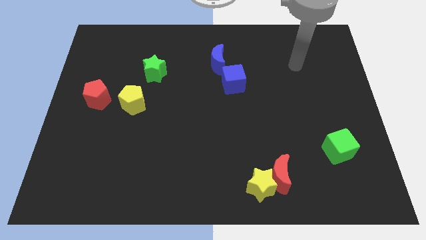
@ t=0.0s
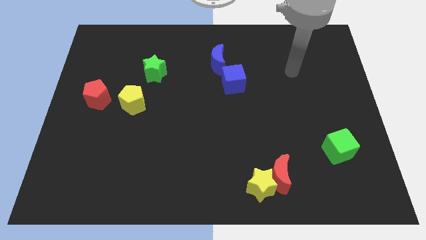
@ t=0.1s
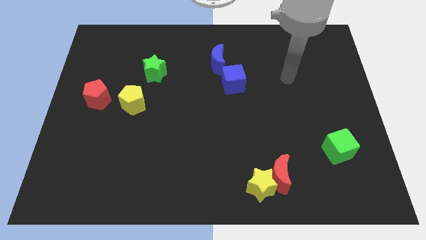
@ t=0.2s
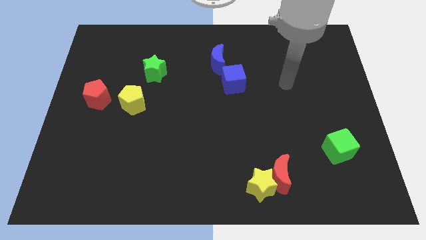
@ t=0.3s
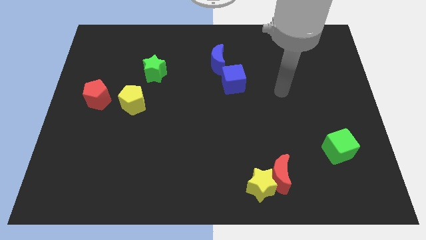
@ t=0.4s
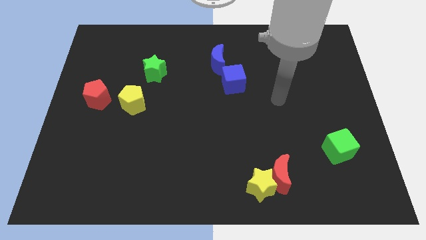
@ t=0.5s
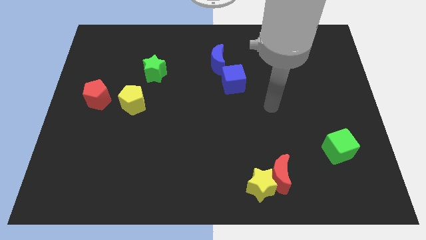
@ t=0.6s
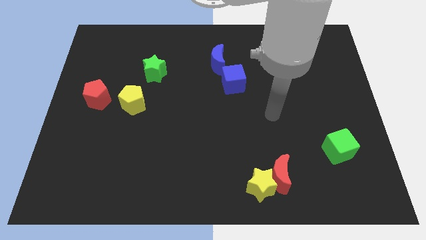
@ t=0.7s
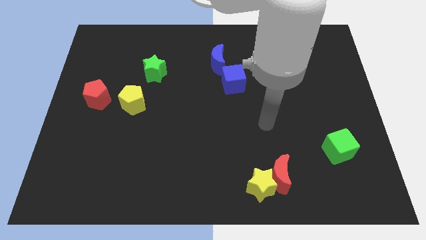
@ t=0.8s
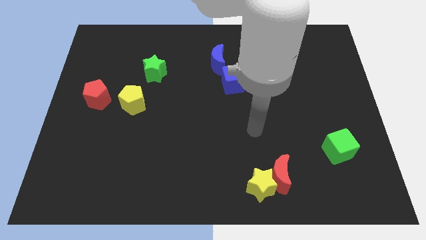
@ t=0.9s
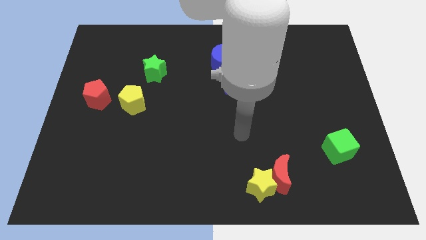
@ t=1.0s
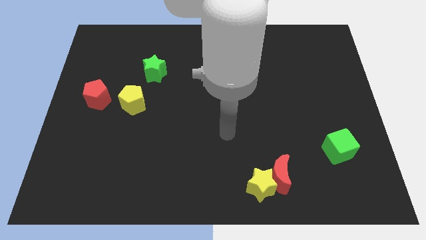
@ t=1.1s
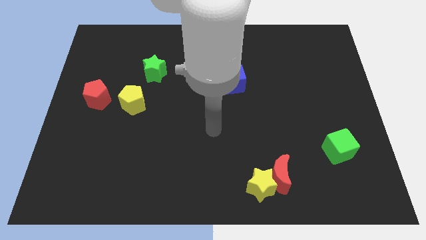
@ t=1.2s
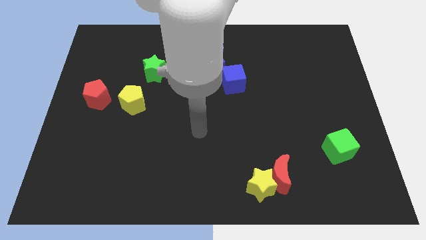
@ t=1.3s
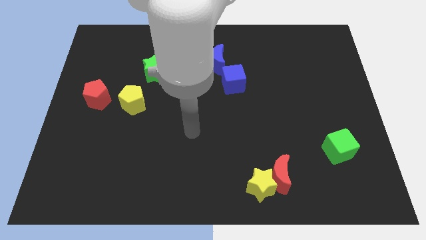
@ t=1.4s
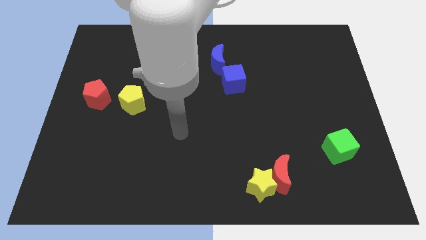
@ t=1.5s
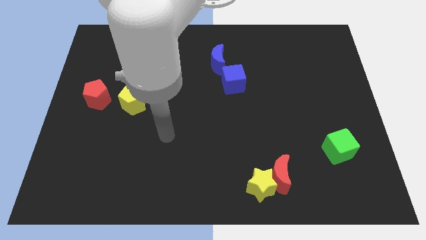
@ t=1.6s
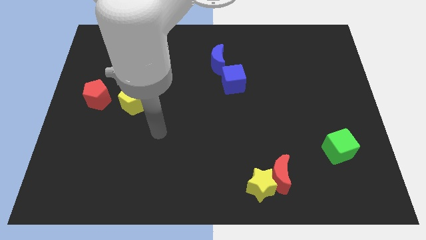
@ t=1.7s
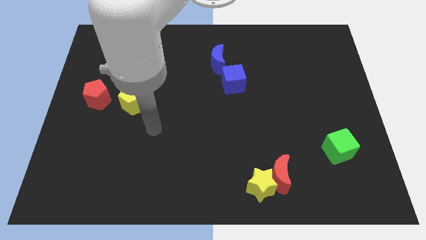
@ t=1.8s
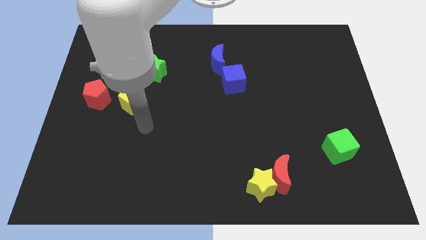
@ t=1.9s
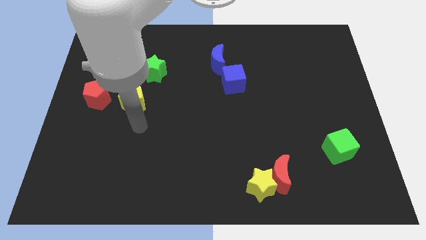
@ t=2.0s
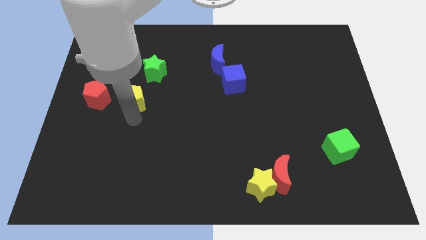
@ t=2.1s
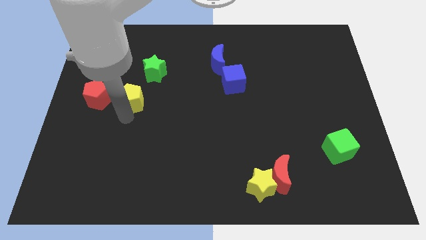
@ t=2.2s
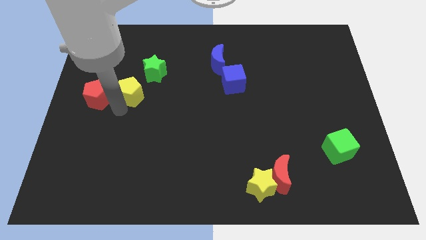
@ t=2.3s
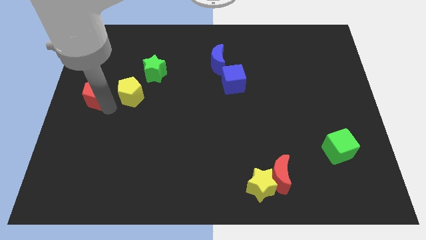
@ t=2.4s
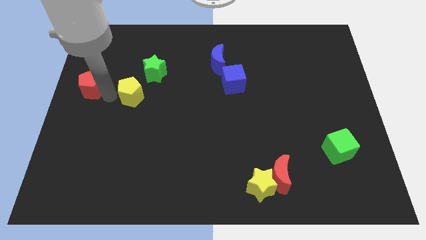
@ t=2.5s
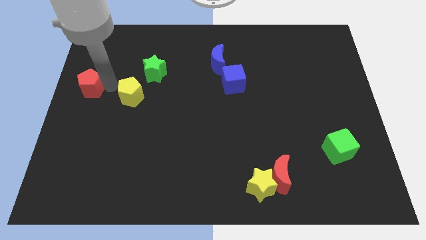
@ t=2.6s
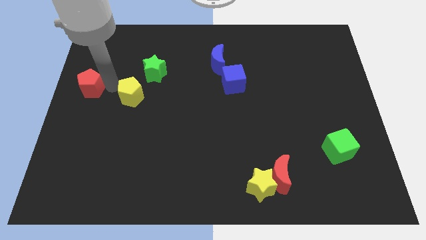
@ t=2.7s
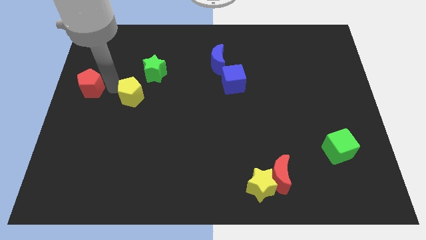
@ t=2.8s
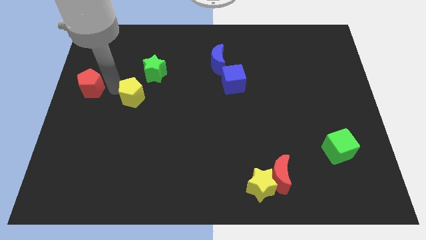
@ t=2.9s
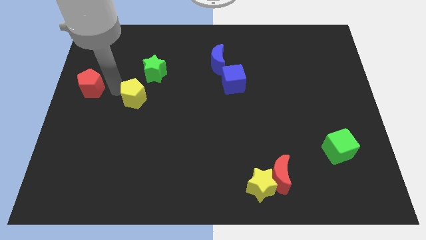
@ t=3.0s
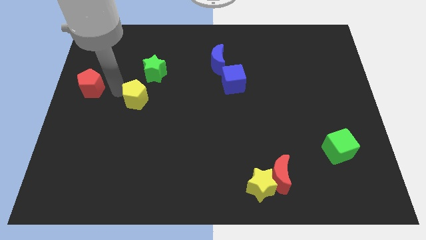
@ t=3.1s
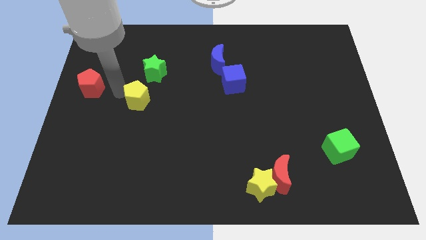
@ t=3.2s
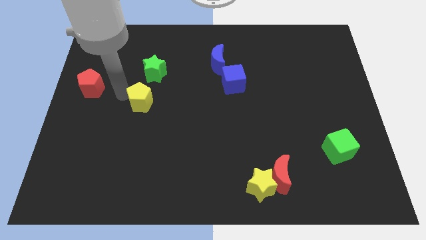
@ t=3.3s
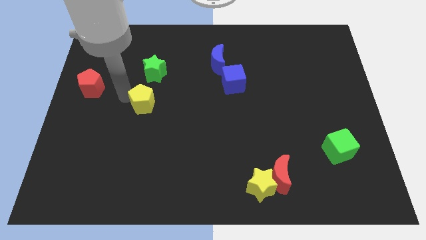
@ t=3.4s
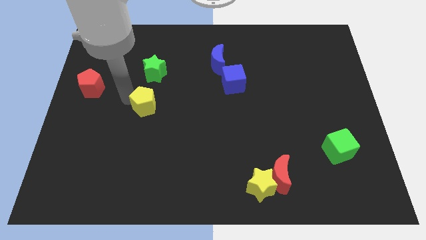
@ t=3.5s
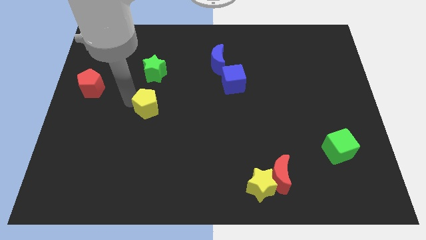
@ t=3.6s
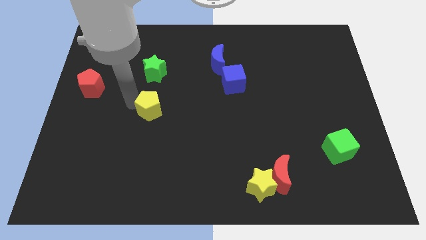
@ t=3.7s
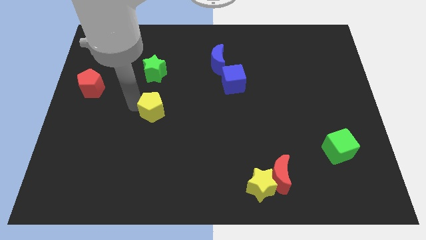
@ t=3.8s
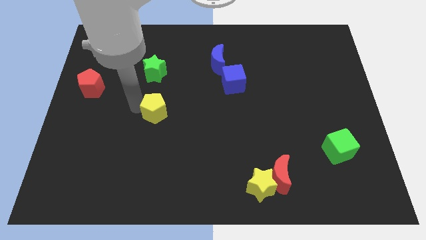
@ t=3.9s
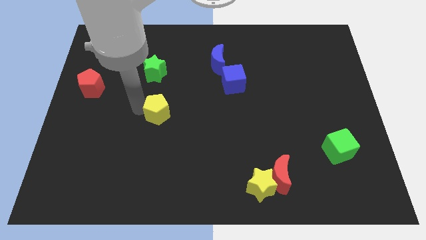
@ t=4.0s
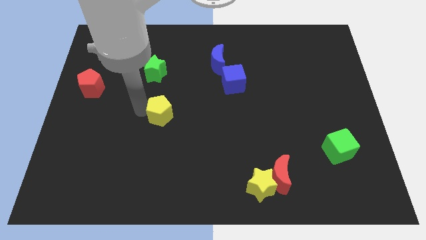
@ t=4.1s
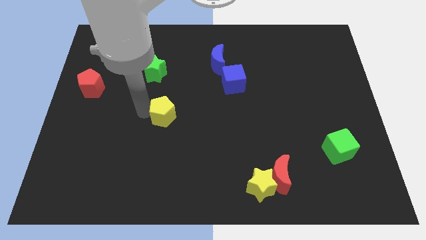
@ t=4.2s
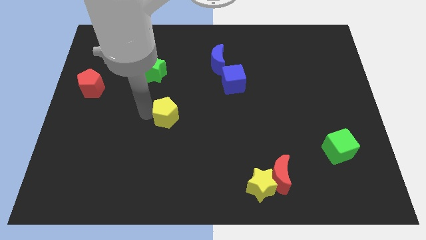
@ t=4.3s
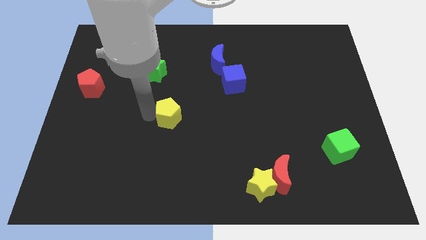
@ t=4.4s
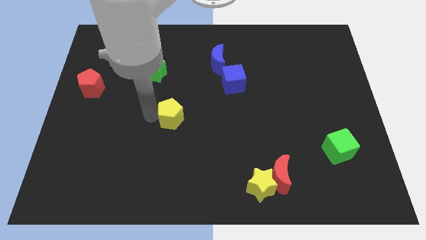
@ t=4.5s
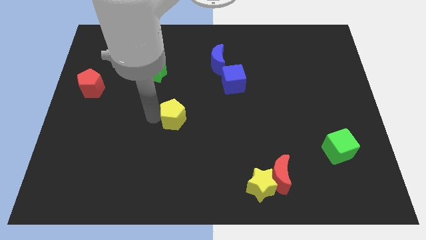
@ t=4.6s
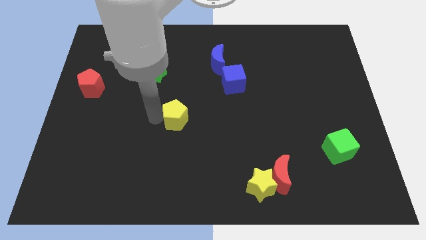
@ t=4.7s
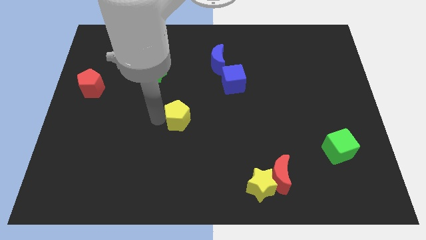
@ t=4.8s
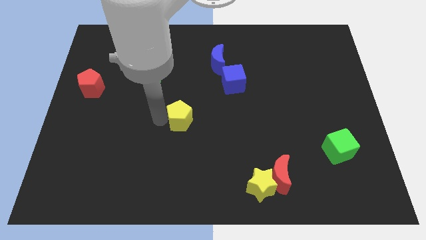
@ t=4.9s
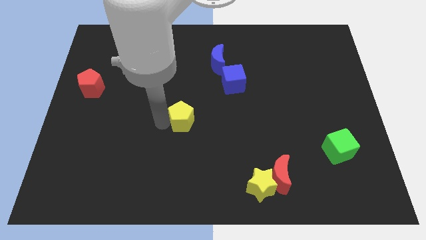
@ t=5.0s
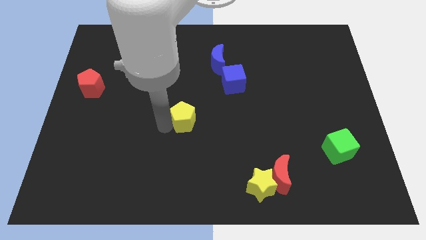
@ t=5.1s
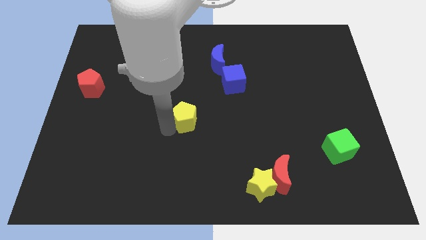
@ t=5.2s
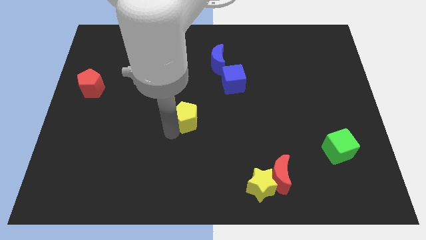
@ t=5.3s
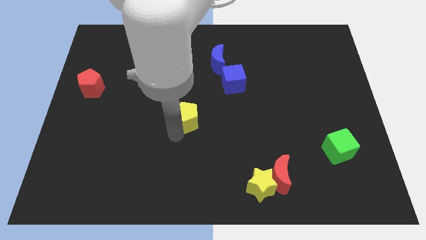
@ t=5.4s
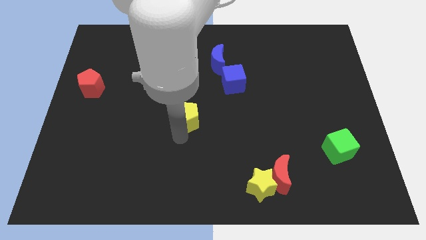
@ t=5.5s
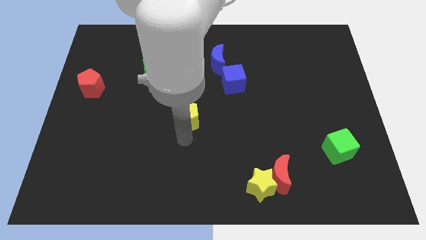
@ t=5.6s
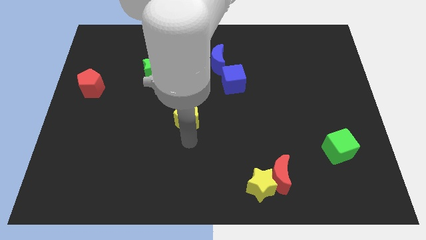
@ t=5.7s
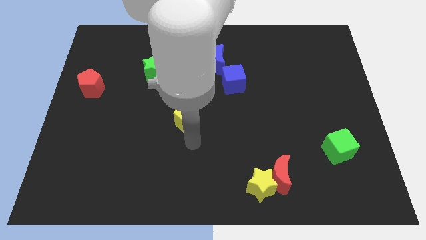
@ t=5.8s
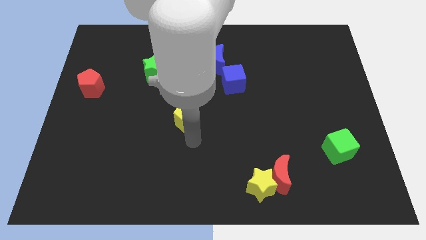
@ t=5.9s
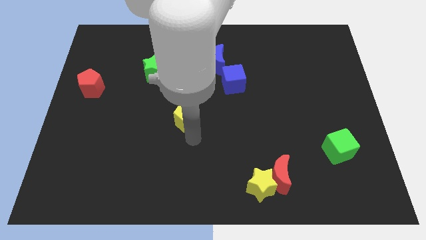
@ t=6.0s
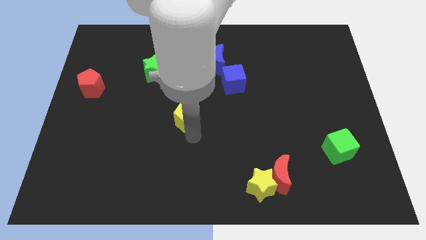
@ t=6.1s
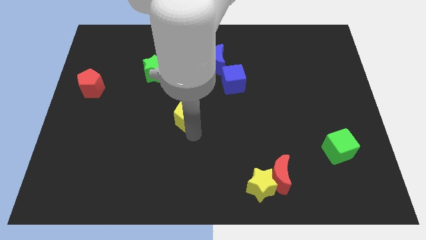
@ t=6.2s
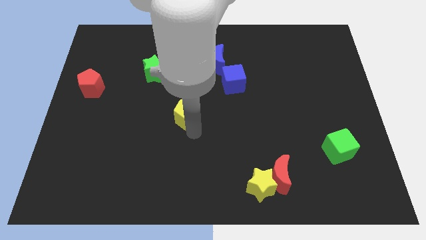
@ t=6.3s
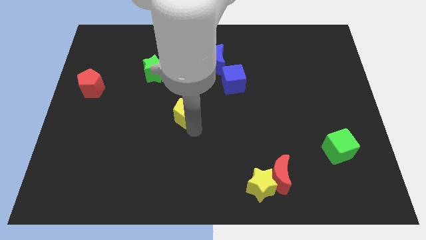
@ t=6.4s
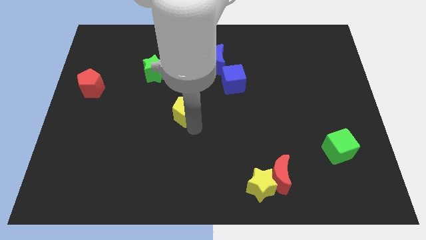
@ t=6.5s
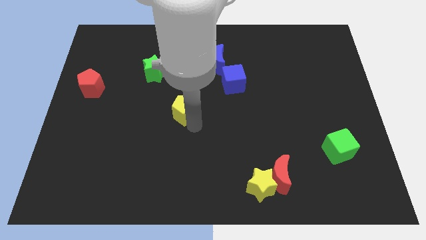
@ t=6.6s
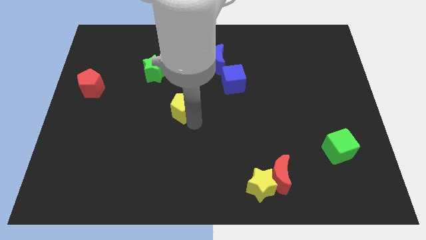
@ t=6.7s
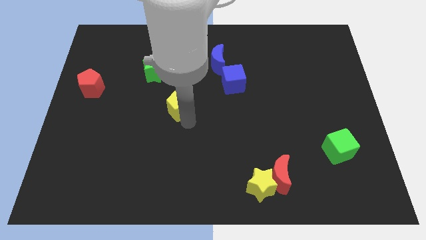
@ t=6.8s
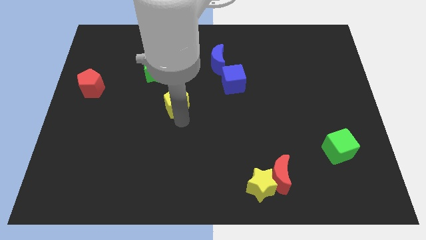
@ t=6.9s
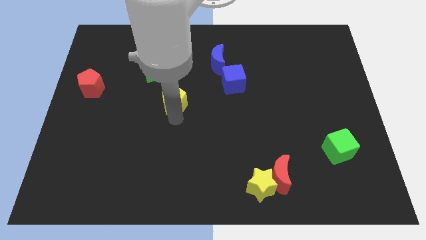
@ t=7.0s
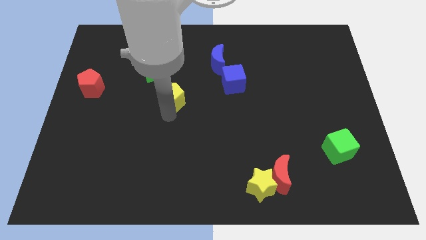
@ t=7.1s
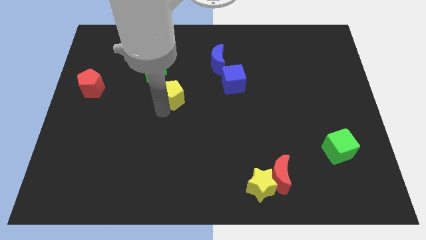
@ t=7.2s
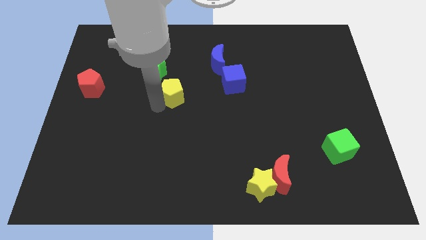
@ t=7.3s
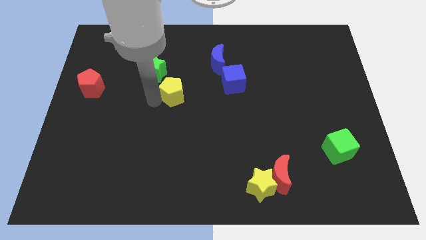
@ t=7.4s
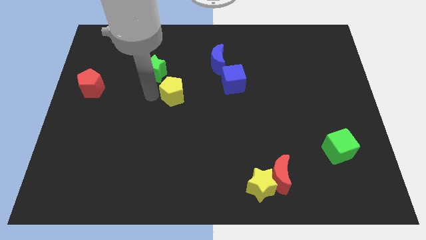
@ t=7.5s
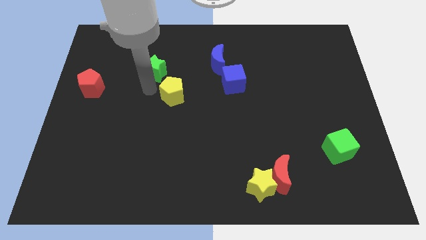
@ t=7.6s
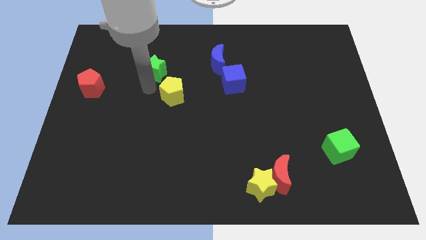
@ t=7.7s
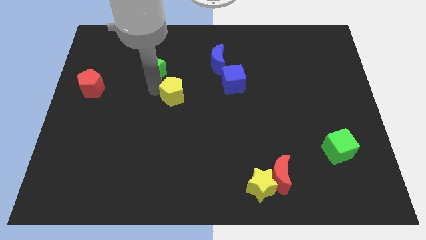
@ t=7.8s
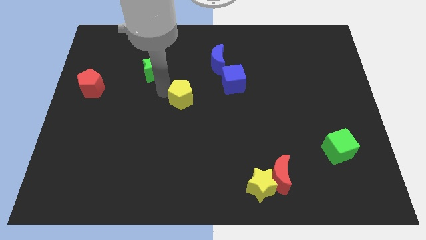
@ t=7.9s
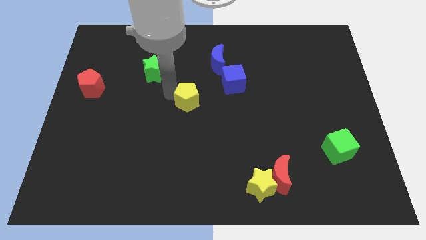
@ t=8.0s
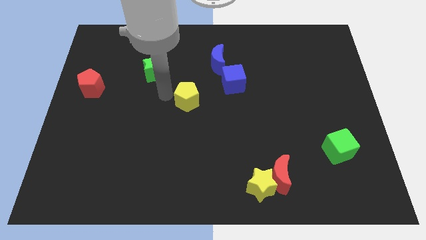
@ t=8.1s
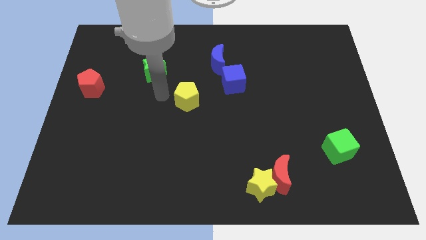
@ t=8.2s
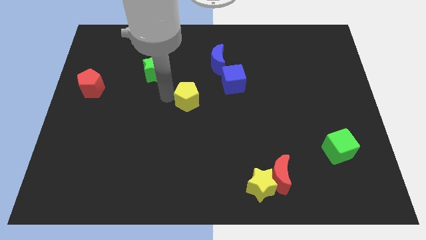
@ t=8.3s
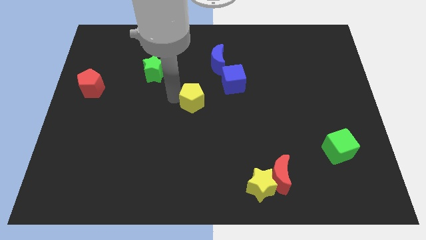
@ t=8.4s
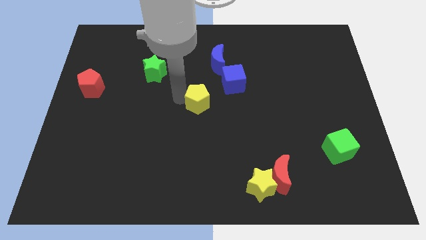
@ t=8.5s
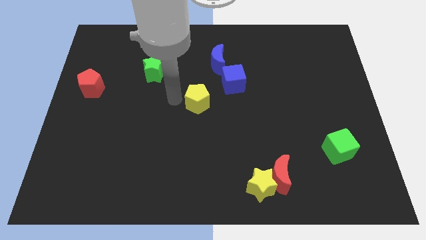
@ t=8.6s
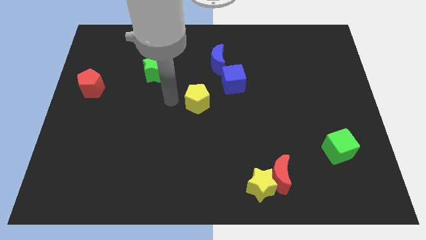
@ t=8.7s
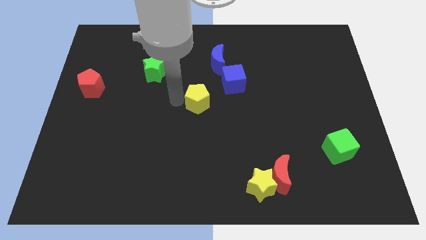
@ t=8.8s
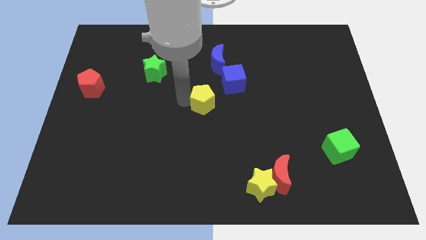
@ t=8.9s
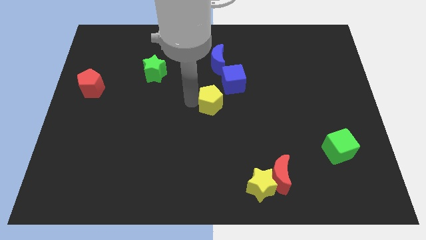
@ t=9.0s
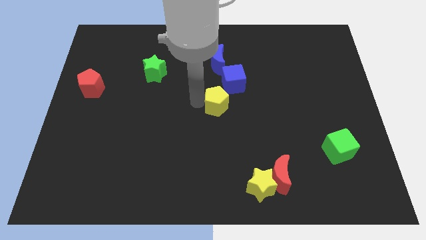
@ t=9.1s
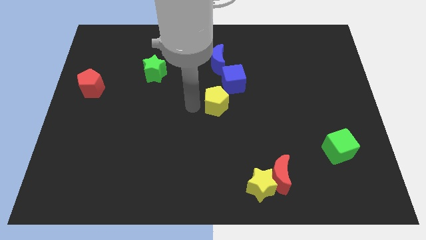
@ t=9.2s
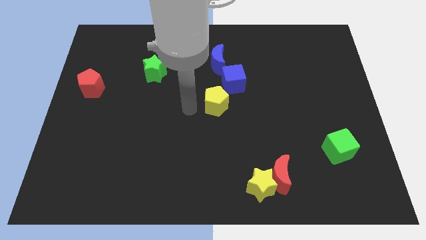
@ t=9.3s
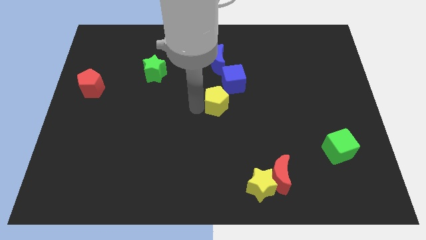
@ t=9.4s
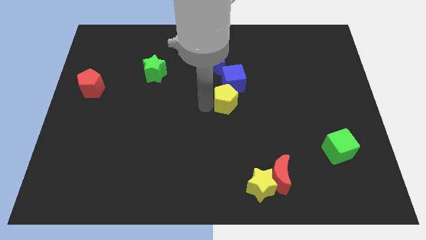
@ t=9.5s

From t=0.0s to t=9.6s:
slide the yellow pentagon to the right
